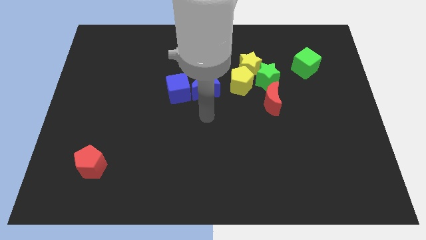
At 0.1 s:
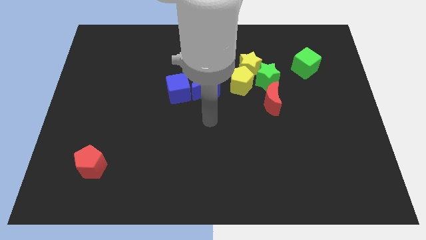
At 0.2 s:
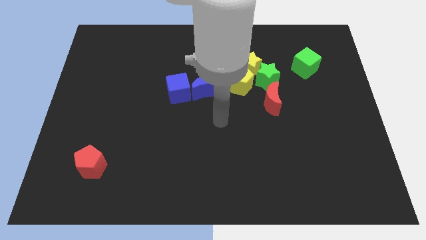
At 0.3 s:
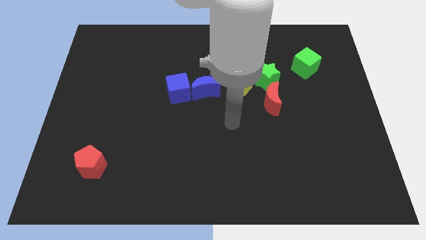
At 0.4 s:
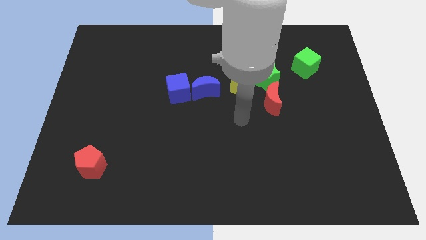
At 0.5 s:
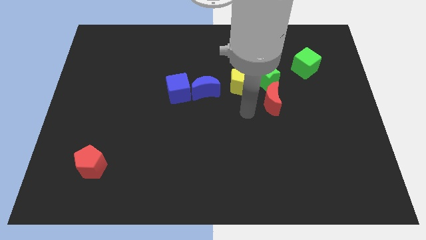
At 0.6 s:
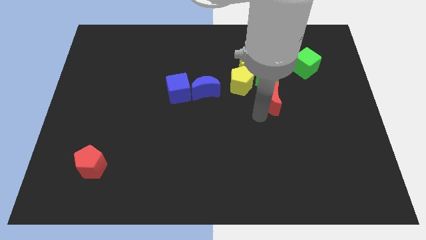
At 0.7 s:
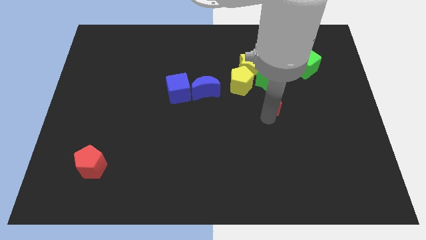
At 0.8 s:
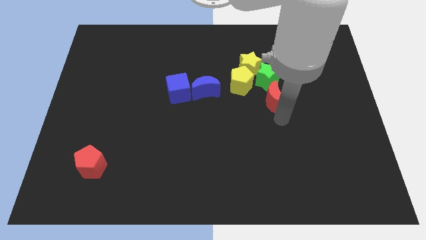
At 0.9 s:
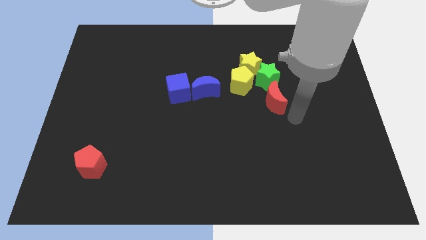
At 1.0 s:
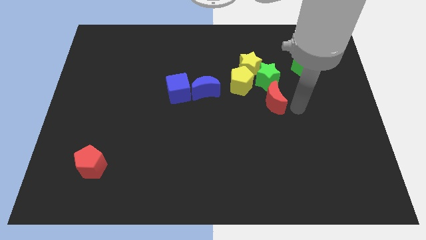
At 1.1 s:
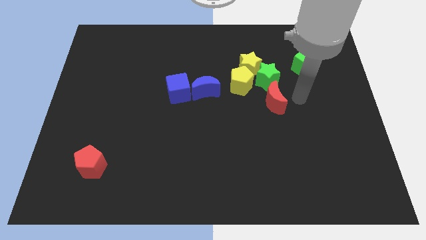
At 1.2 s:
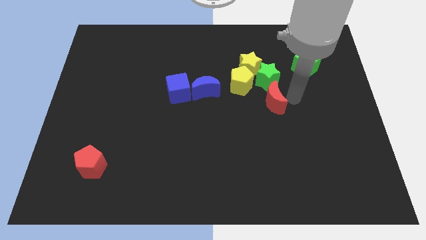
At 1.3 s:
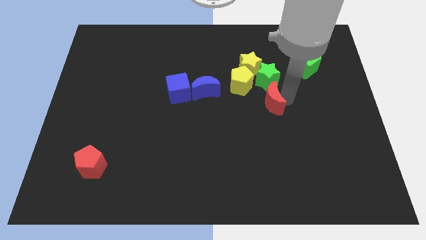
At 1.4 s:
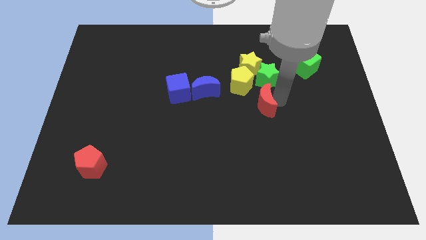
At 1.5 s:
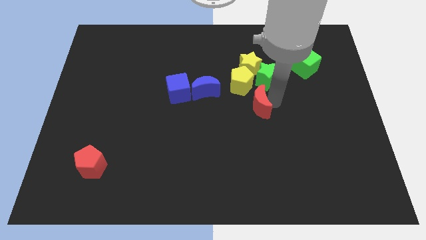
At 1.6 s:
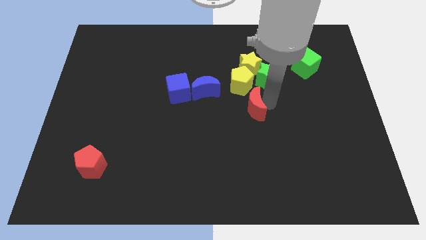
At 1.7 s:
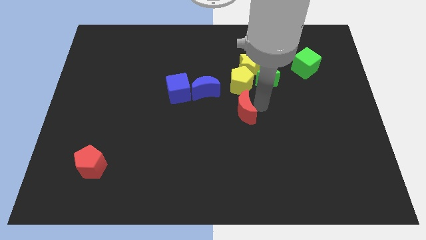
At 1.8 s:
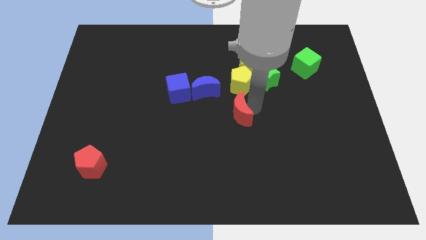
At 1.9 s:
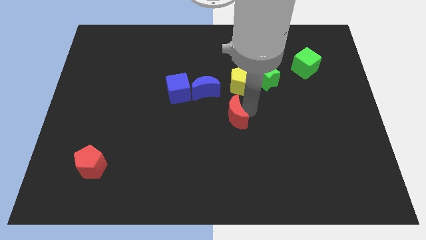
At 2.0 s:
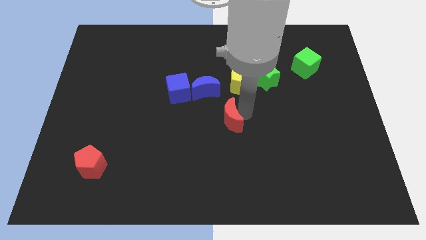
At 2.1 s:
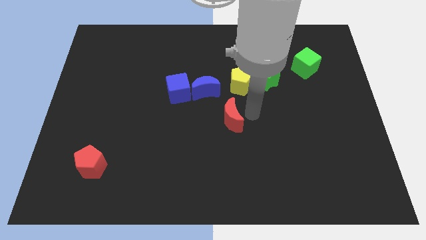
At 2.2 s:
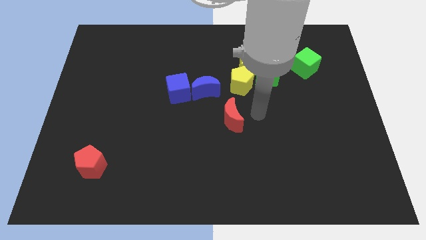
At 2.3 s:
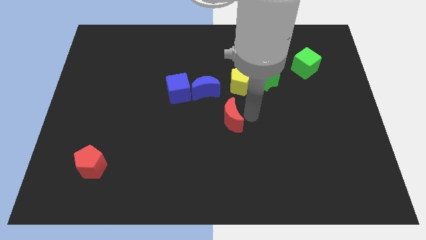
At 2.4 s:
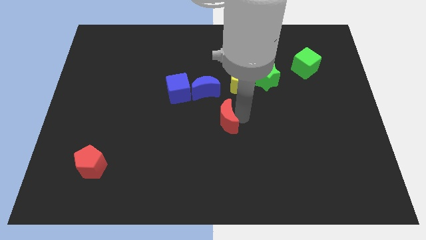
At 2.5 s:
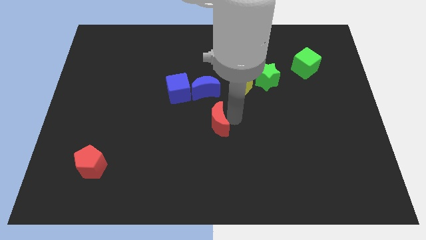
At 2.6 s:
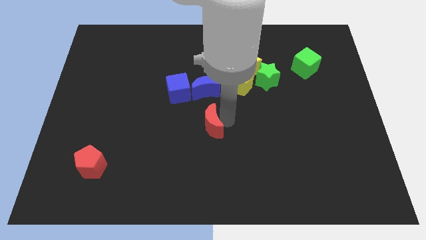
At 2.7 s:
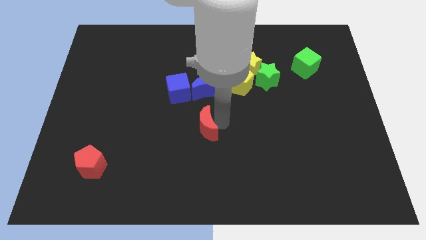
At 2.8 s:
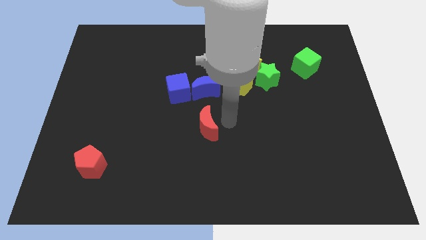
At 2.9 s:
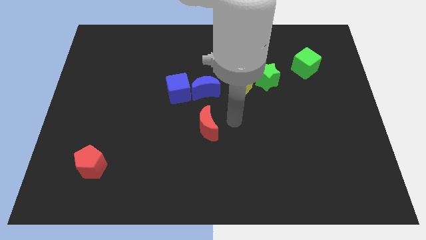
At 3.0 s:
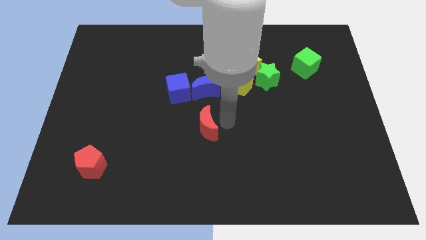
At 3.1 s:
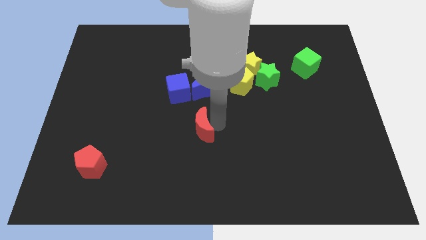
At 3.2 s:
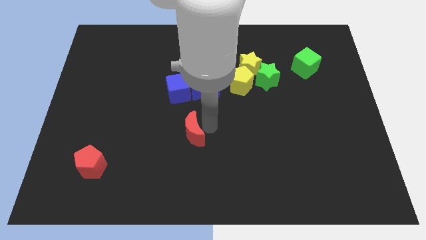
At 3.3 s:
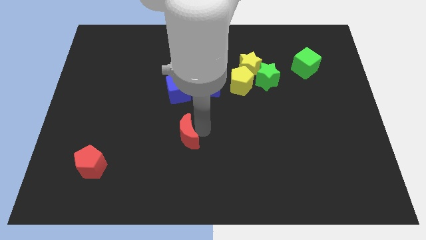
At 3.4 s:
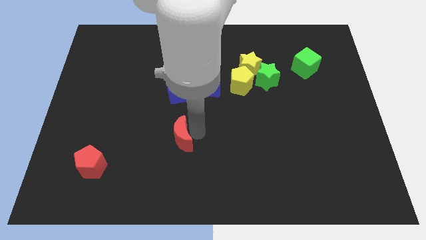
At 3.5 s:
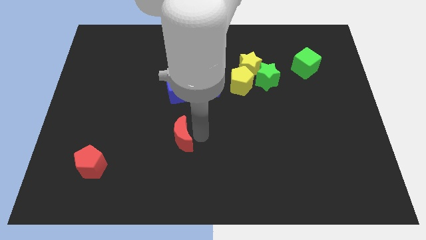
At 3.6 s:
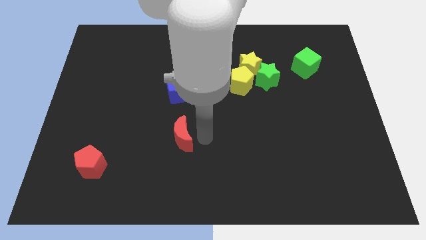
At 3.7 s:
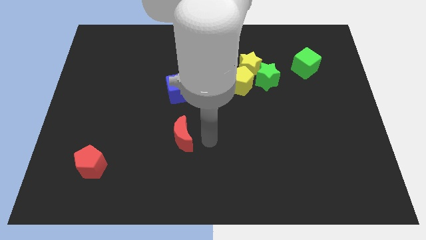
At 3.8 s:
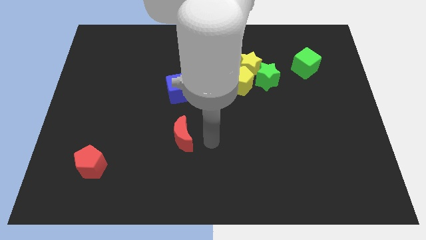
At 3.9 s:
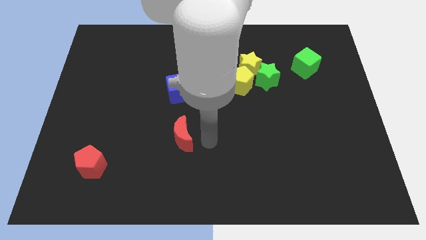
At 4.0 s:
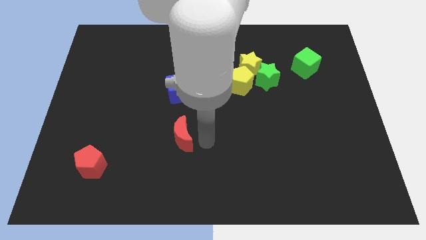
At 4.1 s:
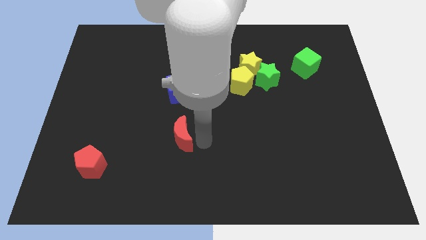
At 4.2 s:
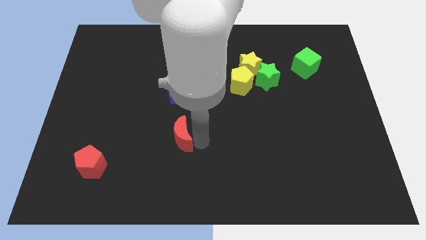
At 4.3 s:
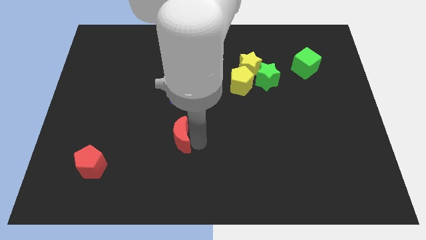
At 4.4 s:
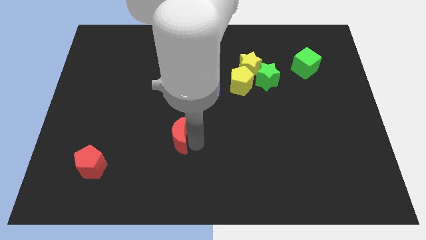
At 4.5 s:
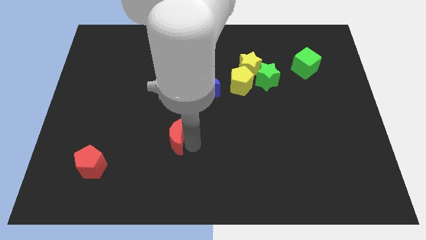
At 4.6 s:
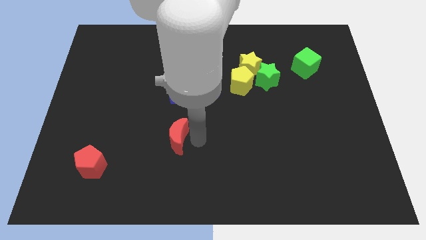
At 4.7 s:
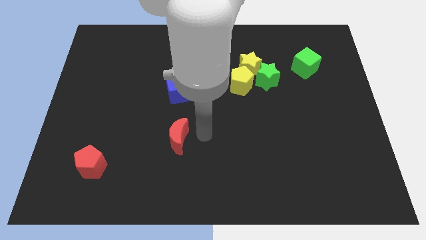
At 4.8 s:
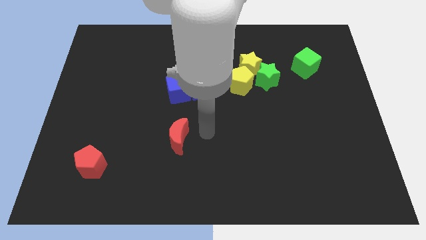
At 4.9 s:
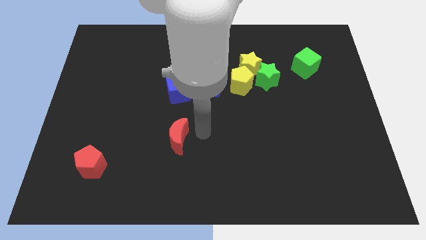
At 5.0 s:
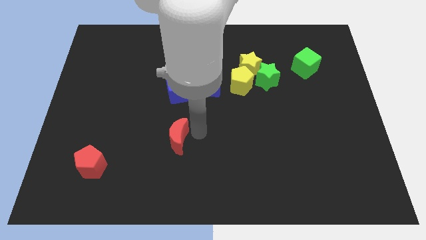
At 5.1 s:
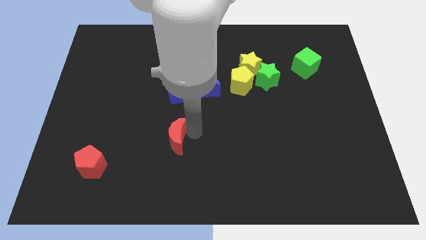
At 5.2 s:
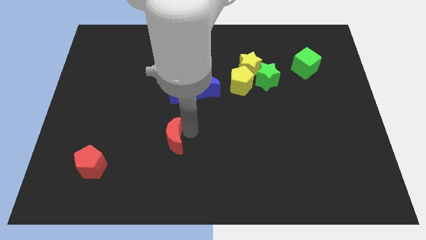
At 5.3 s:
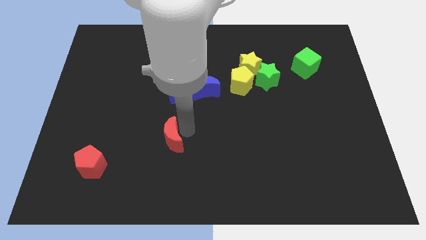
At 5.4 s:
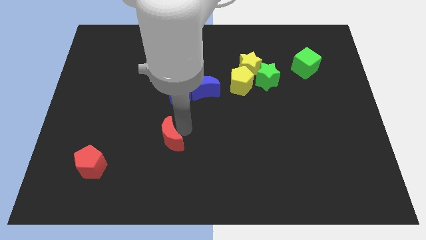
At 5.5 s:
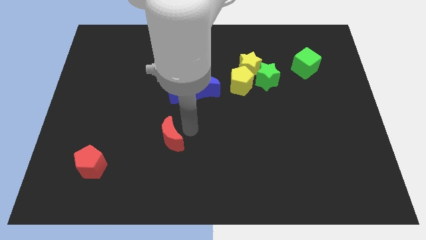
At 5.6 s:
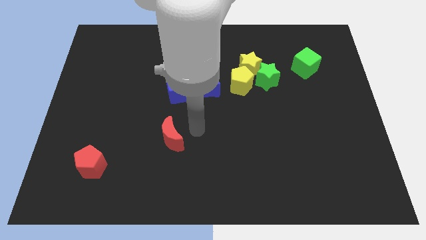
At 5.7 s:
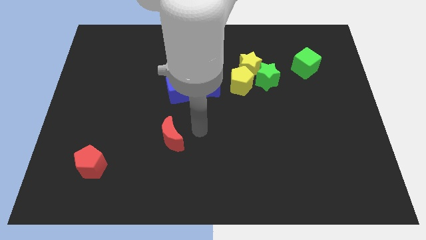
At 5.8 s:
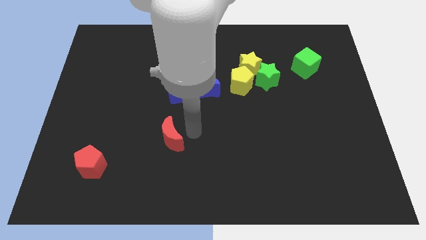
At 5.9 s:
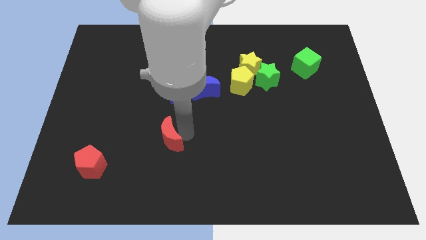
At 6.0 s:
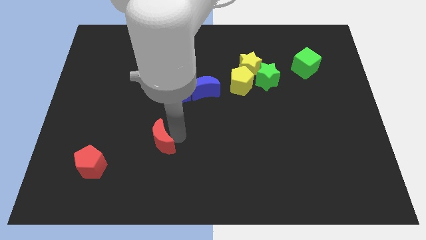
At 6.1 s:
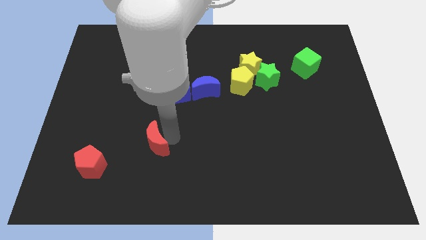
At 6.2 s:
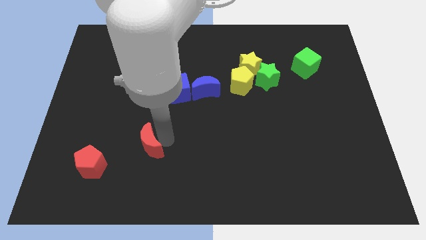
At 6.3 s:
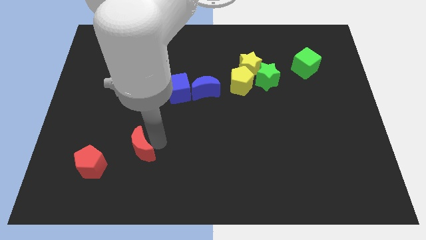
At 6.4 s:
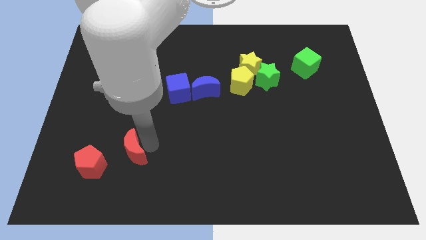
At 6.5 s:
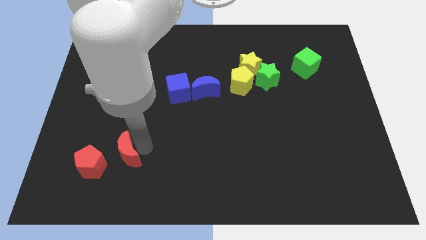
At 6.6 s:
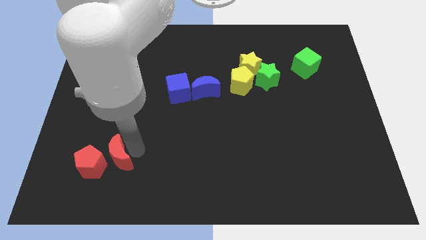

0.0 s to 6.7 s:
move the red moon towards the red pentagon

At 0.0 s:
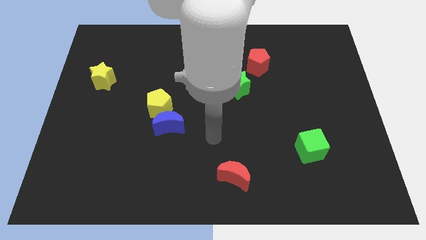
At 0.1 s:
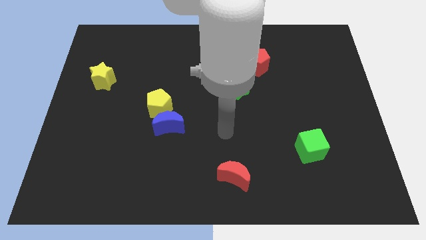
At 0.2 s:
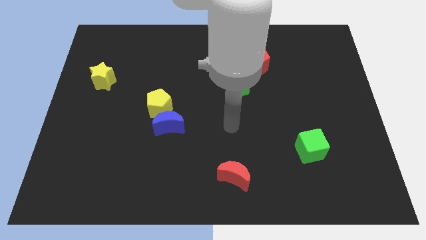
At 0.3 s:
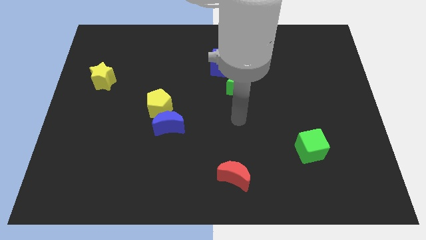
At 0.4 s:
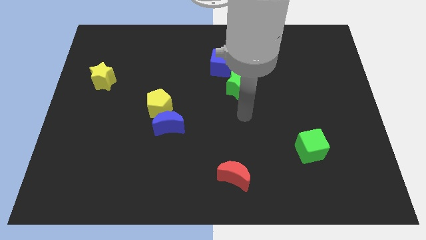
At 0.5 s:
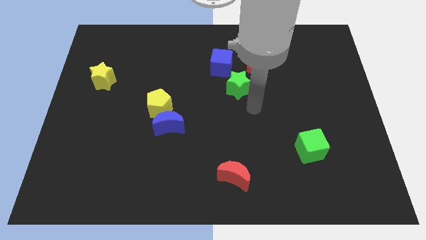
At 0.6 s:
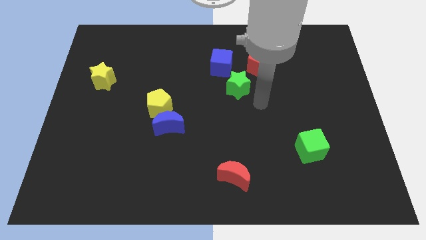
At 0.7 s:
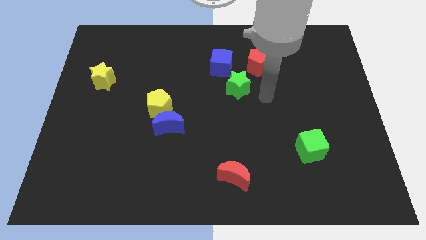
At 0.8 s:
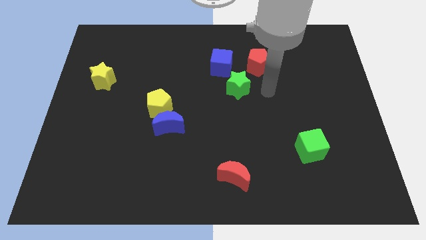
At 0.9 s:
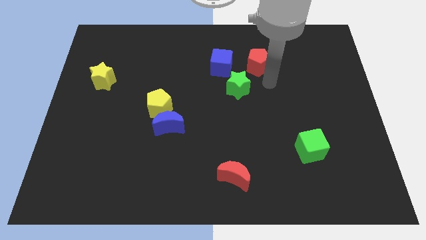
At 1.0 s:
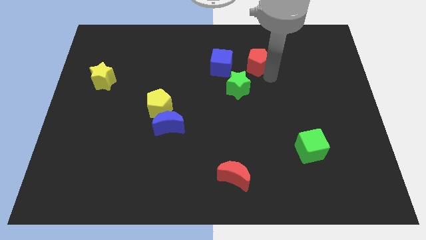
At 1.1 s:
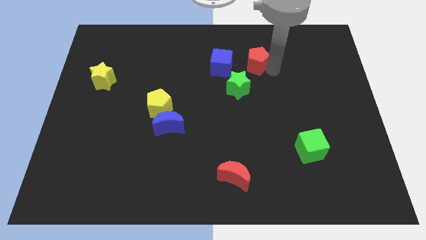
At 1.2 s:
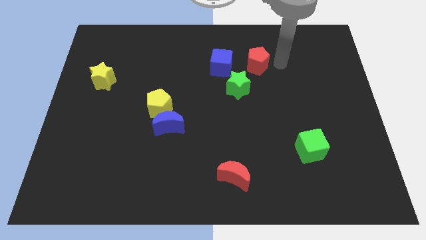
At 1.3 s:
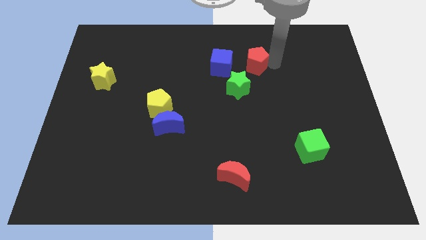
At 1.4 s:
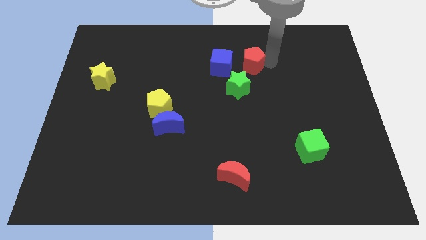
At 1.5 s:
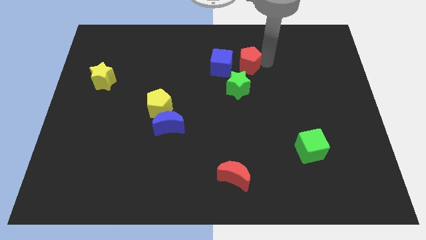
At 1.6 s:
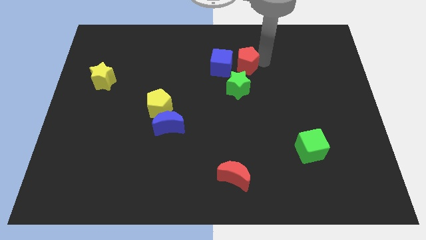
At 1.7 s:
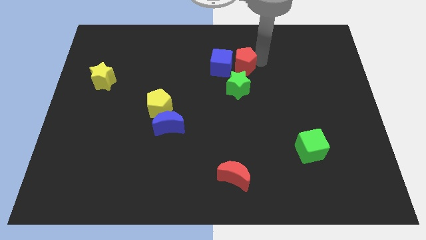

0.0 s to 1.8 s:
push the red pentagon towards the blue cube
